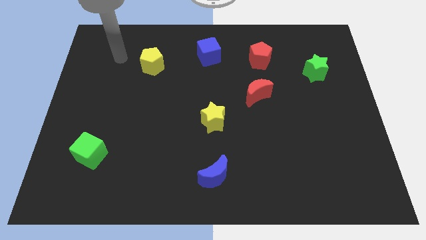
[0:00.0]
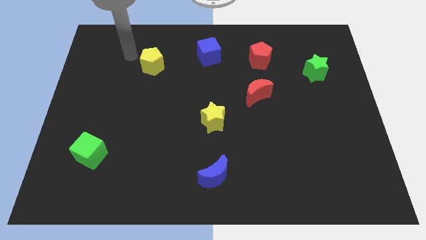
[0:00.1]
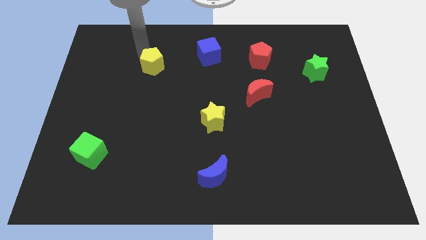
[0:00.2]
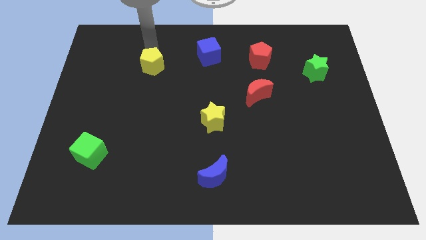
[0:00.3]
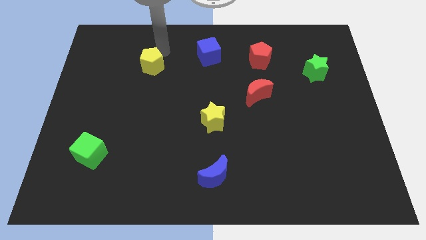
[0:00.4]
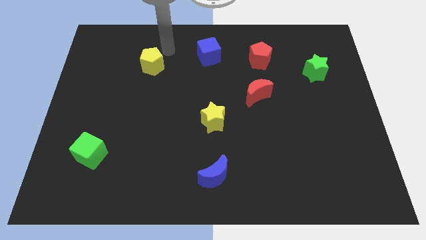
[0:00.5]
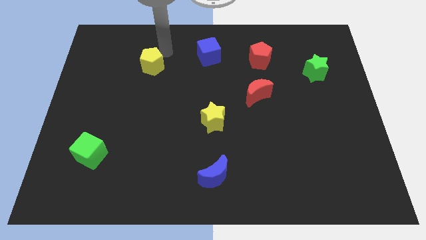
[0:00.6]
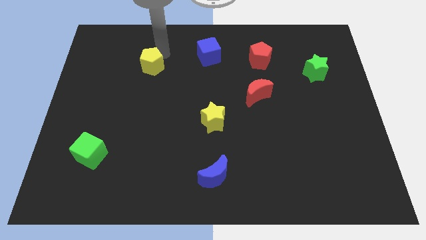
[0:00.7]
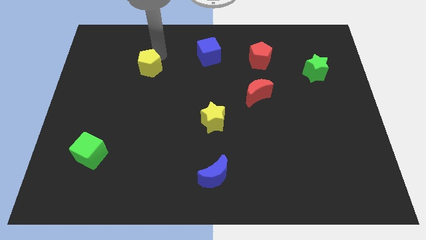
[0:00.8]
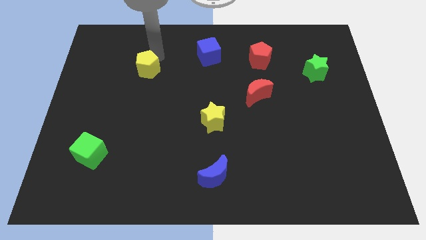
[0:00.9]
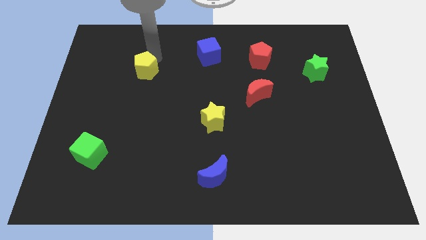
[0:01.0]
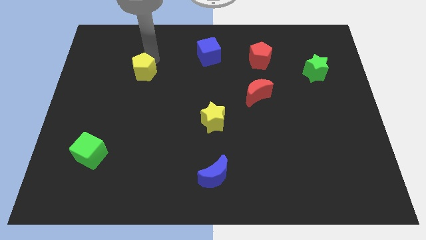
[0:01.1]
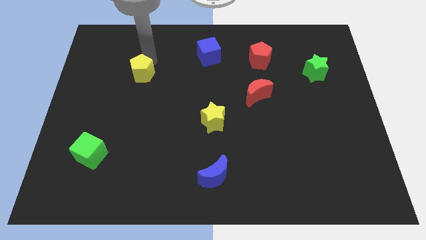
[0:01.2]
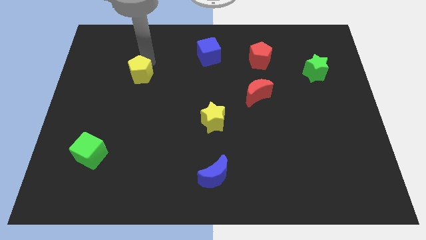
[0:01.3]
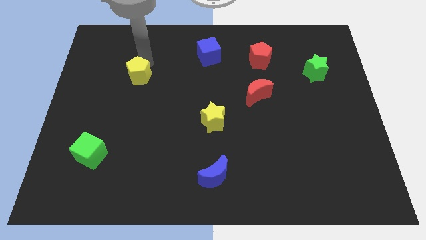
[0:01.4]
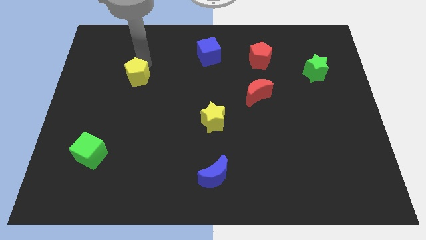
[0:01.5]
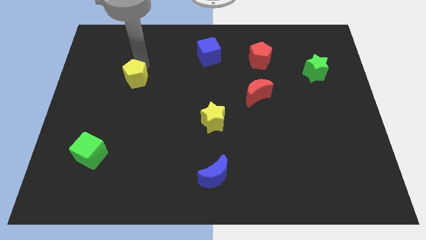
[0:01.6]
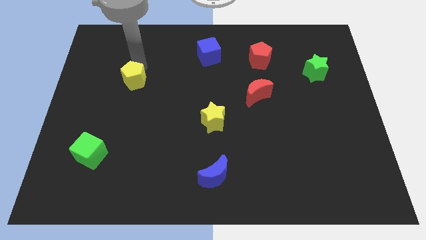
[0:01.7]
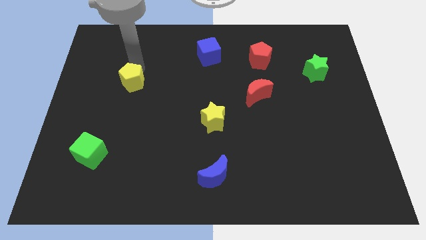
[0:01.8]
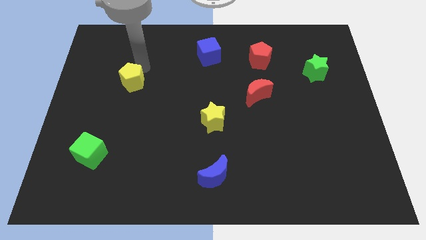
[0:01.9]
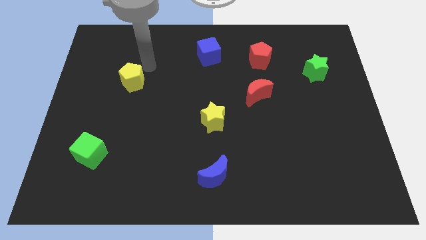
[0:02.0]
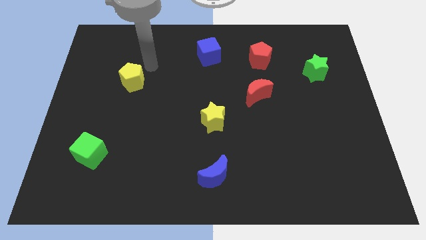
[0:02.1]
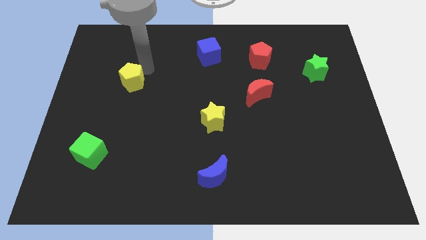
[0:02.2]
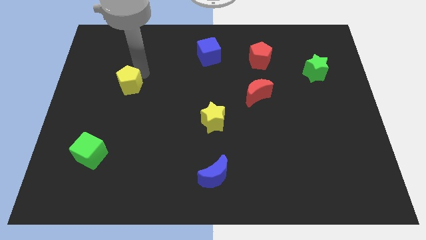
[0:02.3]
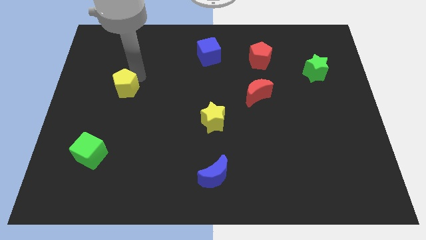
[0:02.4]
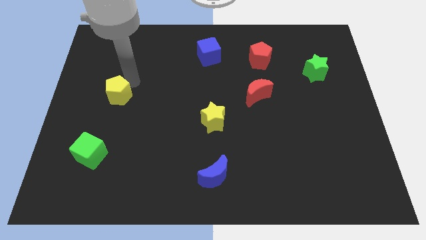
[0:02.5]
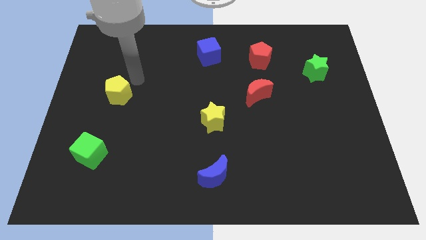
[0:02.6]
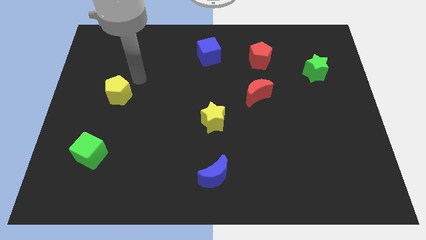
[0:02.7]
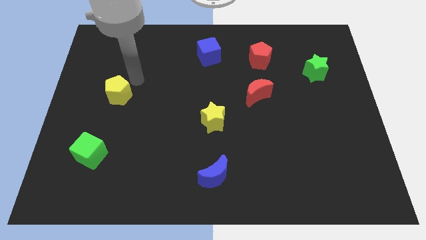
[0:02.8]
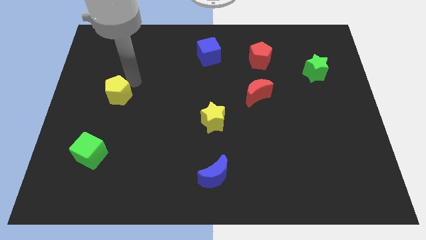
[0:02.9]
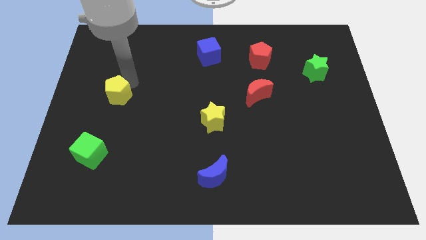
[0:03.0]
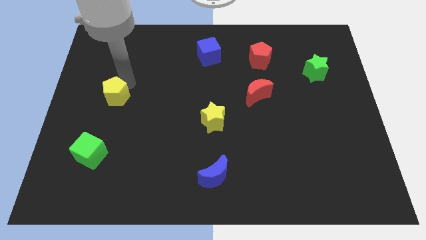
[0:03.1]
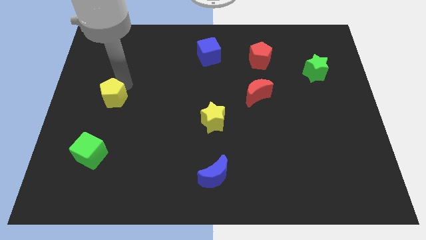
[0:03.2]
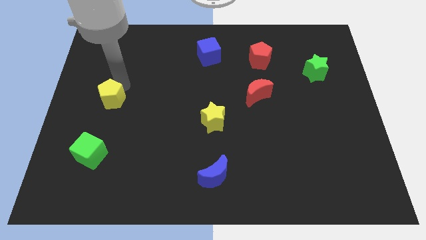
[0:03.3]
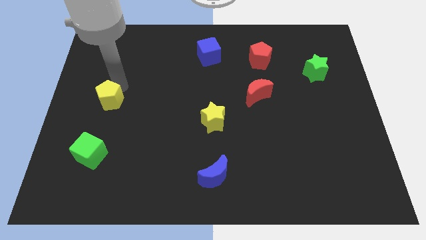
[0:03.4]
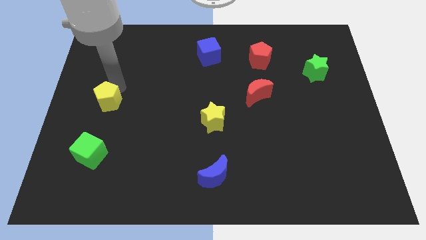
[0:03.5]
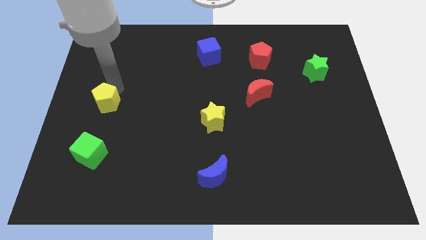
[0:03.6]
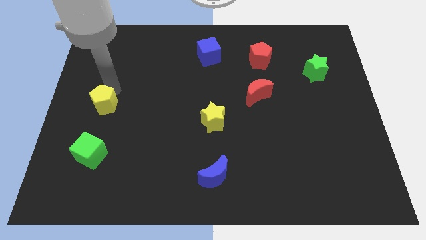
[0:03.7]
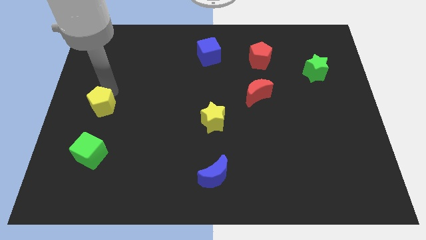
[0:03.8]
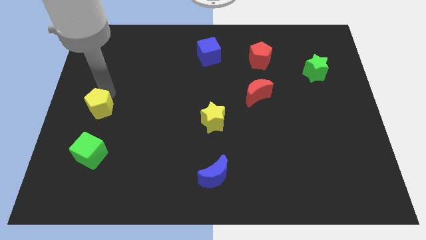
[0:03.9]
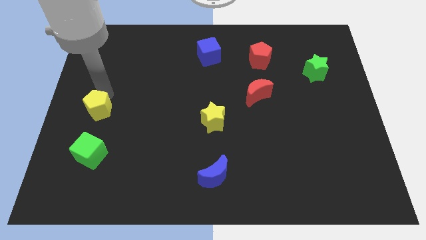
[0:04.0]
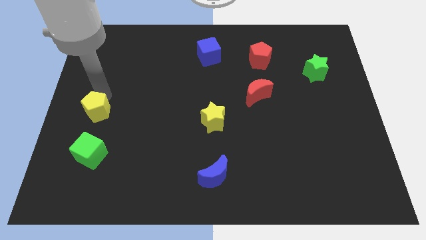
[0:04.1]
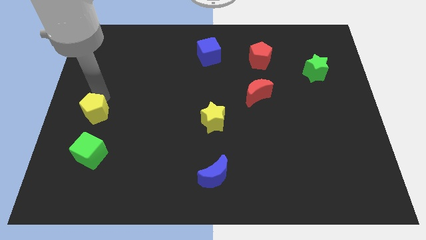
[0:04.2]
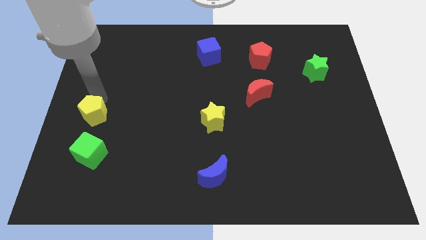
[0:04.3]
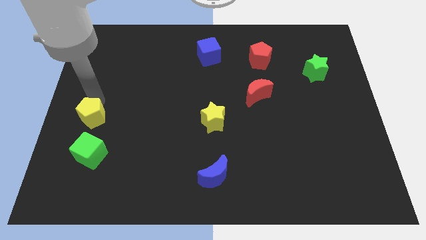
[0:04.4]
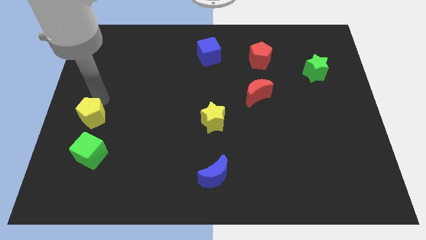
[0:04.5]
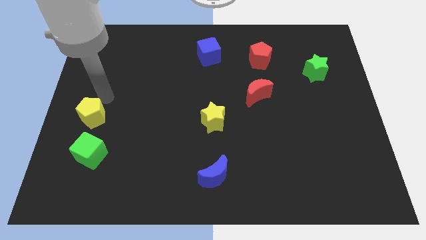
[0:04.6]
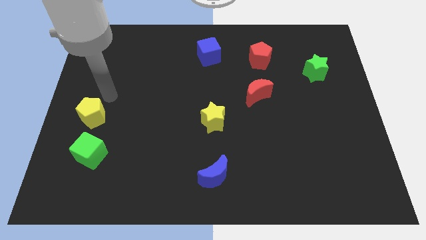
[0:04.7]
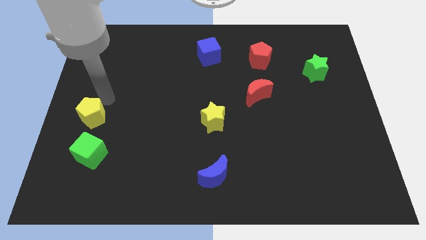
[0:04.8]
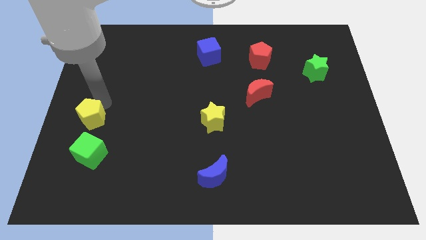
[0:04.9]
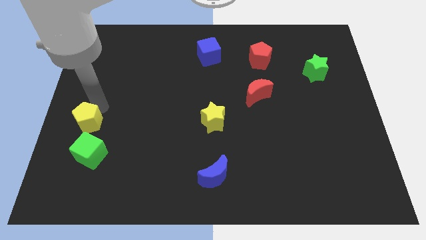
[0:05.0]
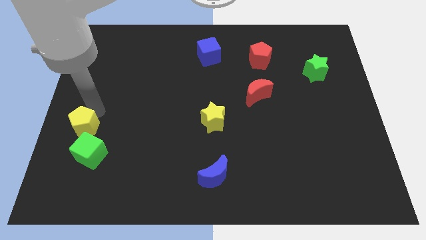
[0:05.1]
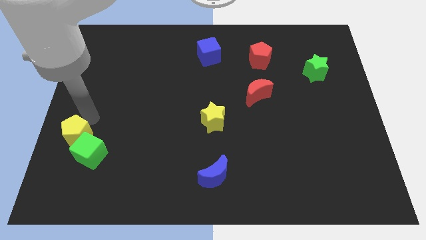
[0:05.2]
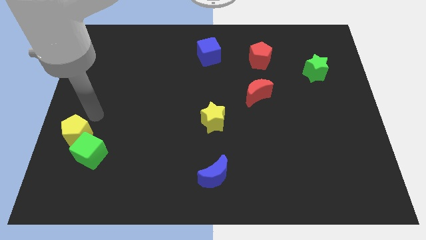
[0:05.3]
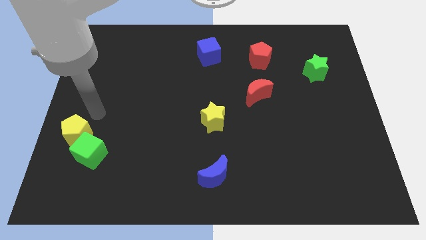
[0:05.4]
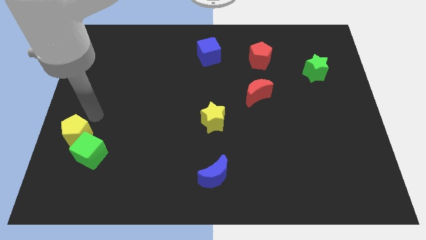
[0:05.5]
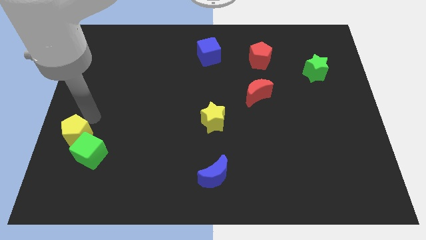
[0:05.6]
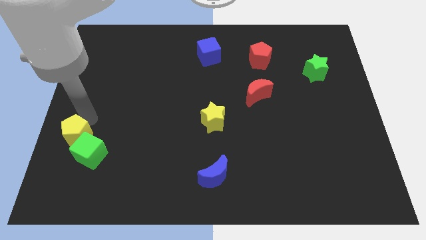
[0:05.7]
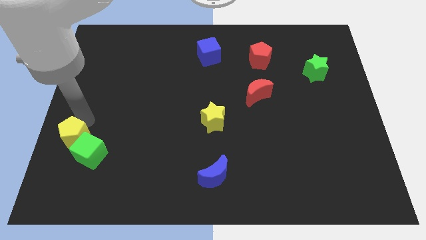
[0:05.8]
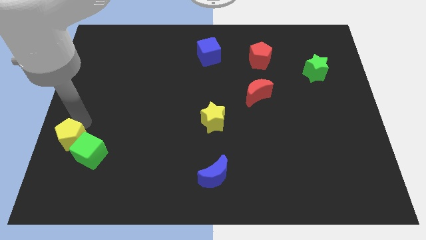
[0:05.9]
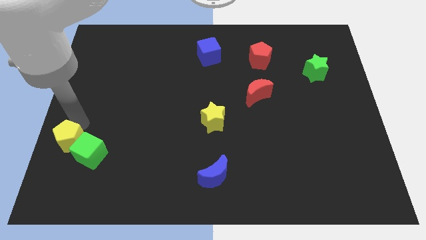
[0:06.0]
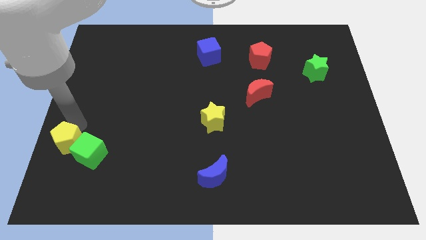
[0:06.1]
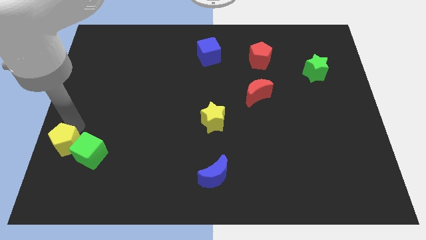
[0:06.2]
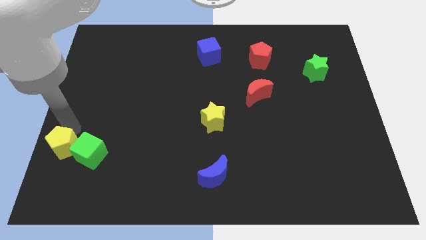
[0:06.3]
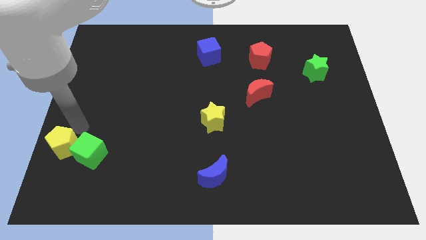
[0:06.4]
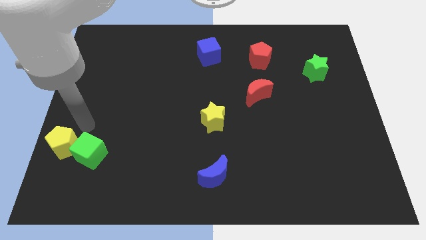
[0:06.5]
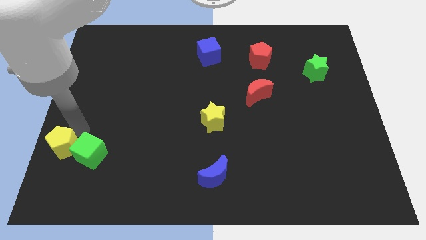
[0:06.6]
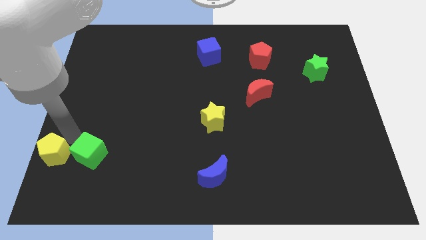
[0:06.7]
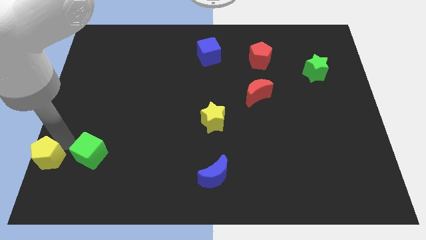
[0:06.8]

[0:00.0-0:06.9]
push the yellow pentagon to the bottom left corner
